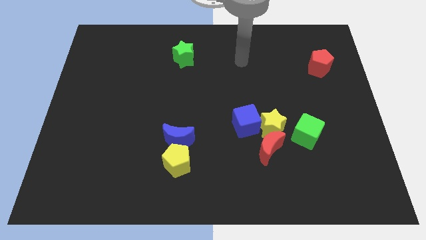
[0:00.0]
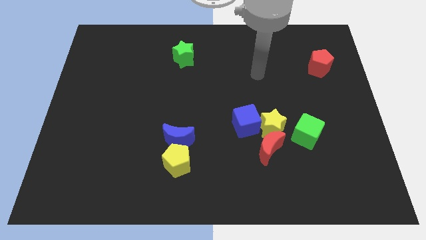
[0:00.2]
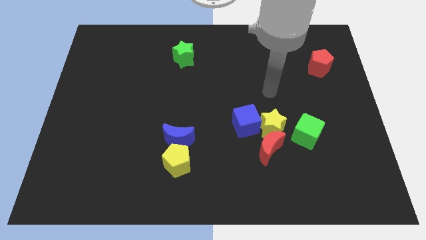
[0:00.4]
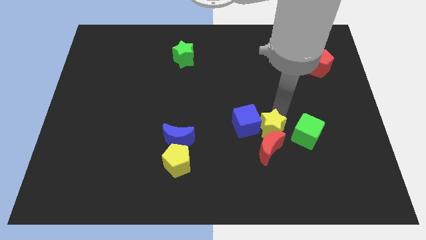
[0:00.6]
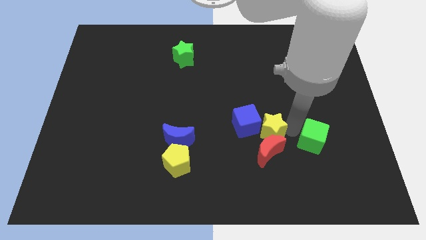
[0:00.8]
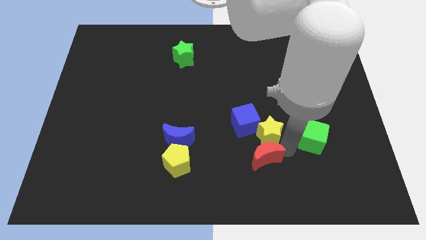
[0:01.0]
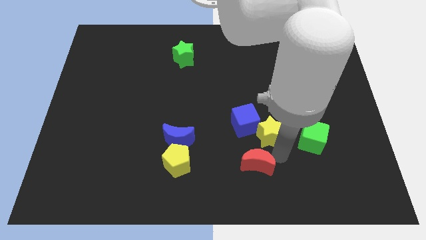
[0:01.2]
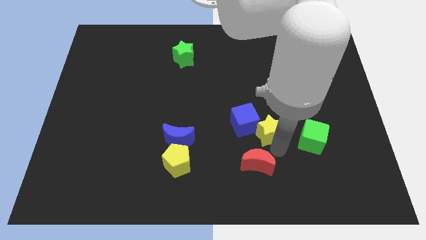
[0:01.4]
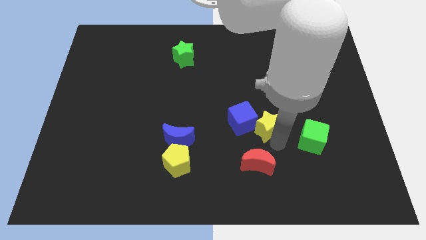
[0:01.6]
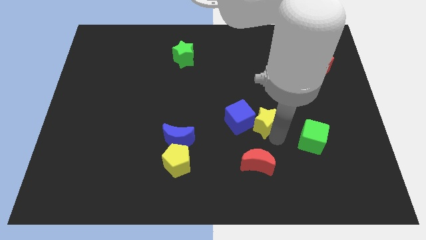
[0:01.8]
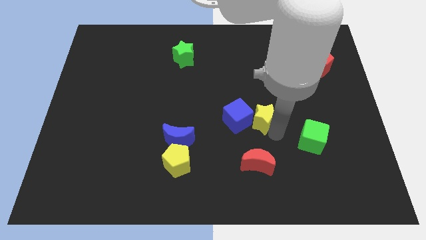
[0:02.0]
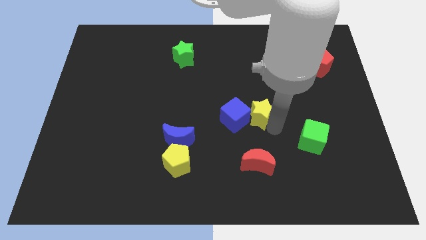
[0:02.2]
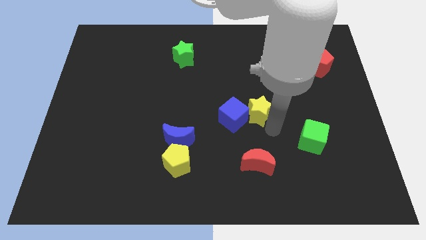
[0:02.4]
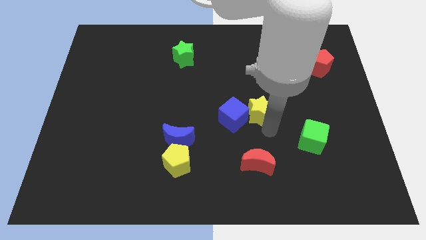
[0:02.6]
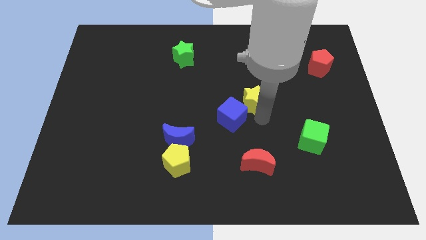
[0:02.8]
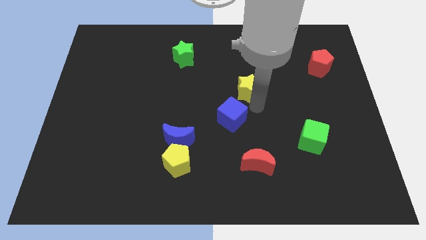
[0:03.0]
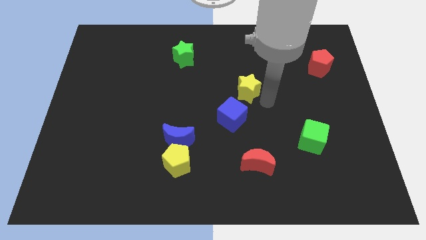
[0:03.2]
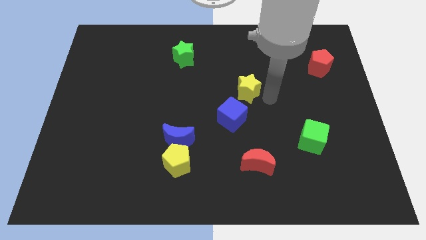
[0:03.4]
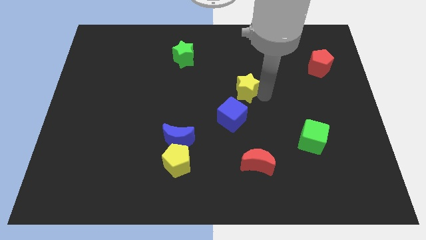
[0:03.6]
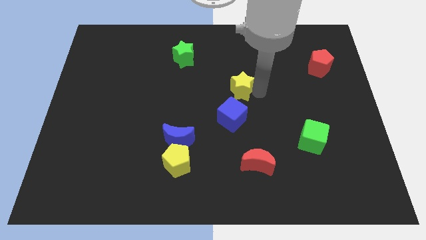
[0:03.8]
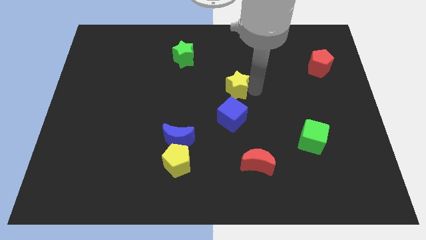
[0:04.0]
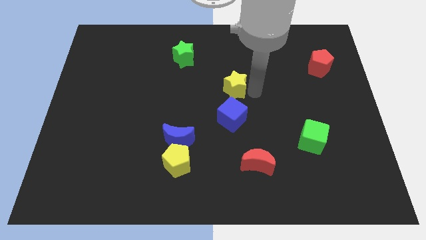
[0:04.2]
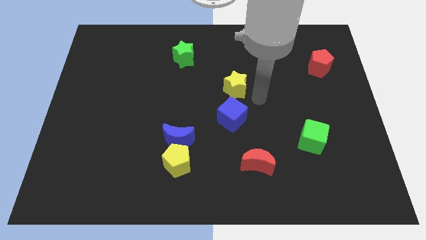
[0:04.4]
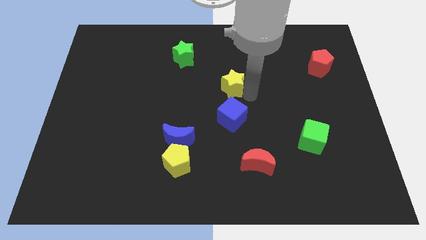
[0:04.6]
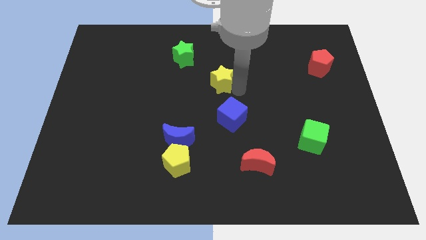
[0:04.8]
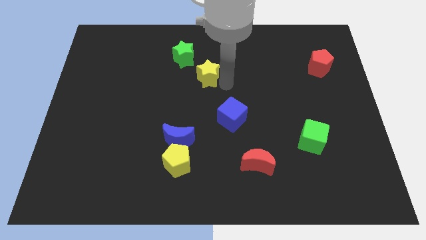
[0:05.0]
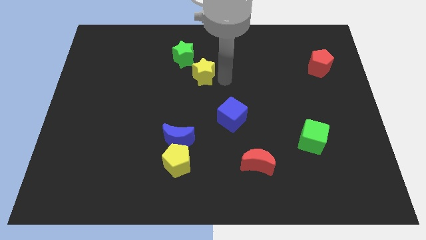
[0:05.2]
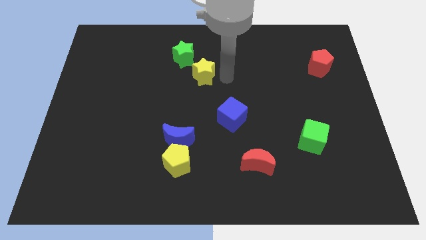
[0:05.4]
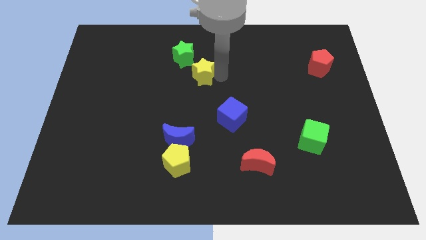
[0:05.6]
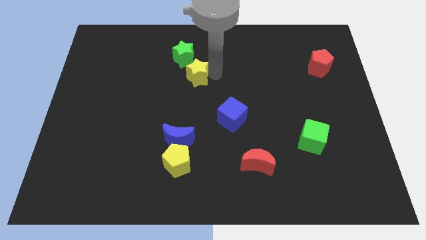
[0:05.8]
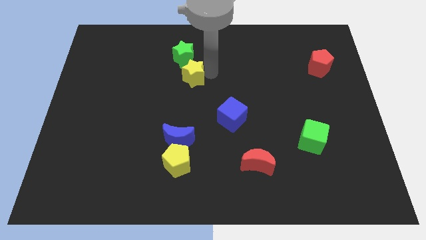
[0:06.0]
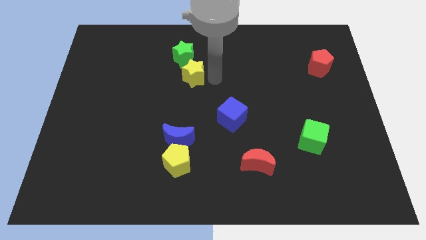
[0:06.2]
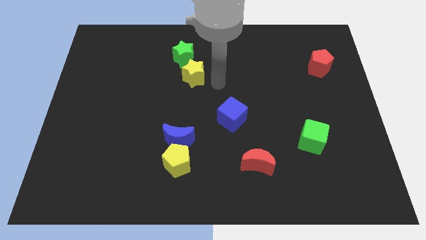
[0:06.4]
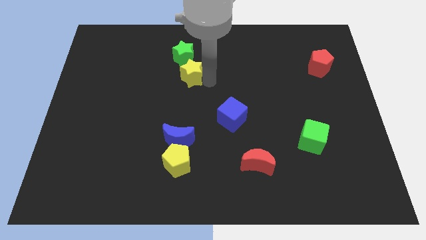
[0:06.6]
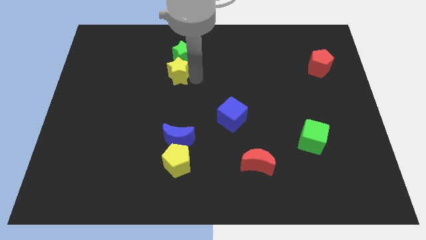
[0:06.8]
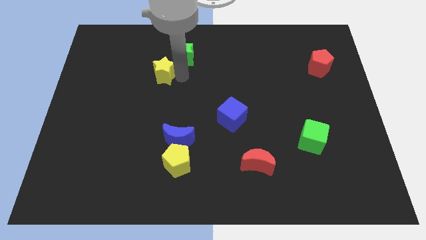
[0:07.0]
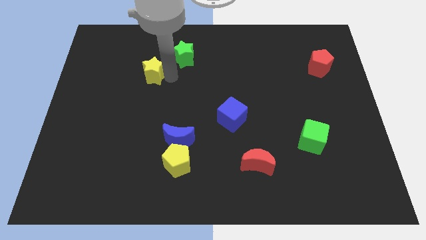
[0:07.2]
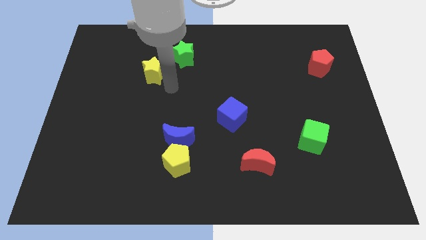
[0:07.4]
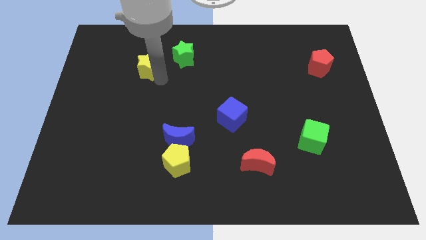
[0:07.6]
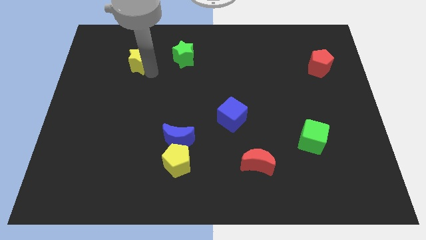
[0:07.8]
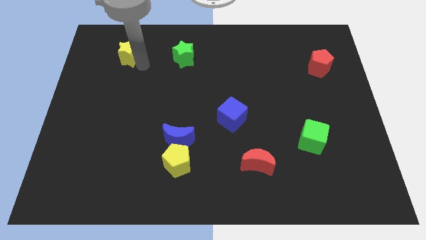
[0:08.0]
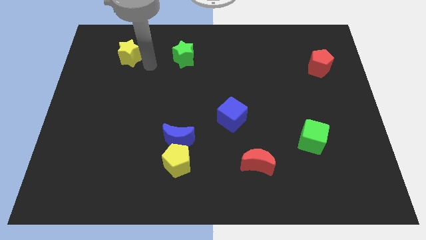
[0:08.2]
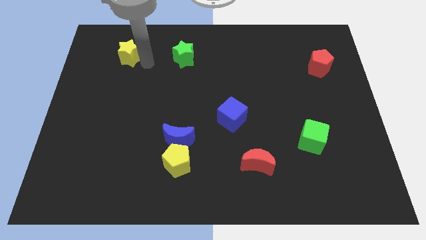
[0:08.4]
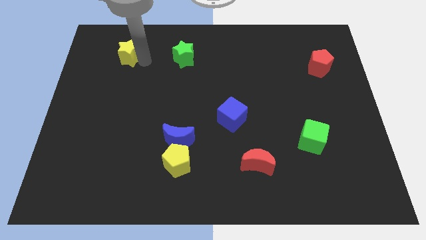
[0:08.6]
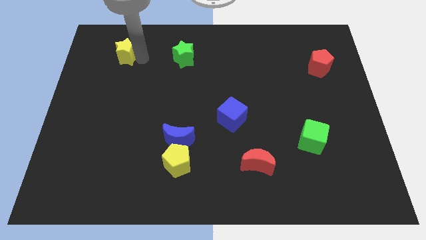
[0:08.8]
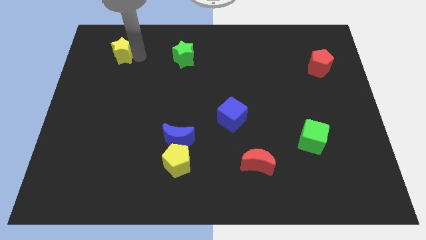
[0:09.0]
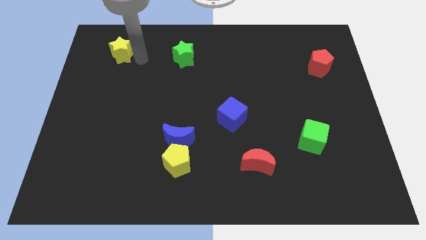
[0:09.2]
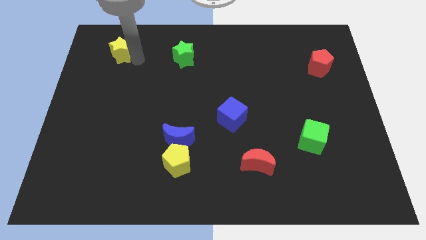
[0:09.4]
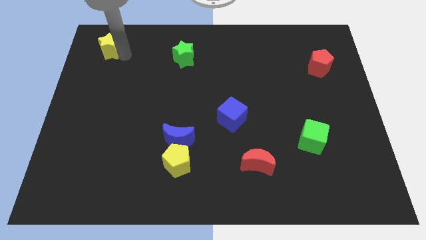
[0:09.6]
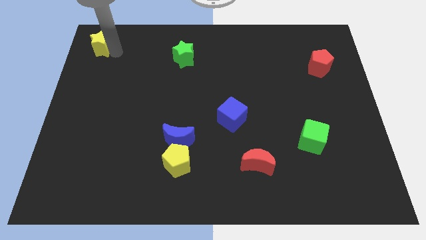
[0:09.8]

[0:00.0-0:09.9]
push the yellow star to the upper left corner

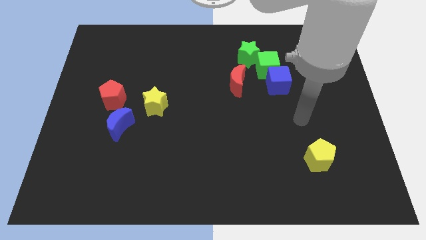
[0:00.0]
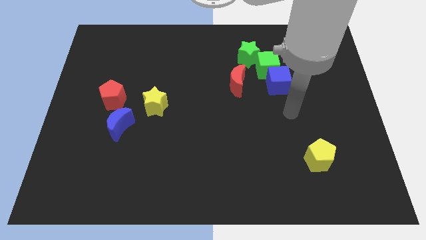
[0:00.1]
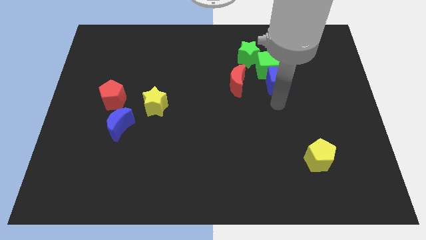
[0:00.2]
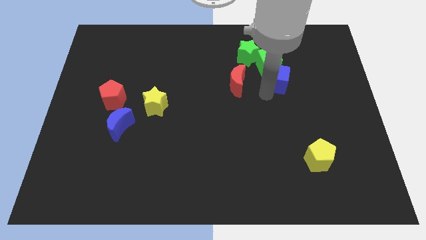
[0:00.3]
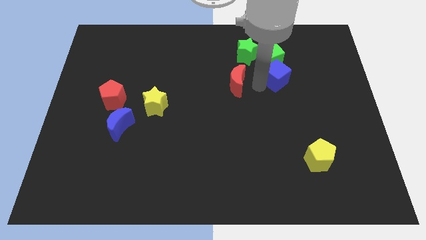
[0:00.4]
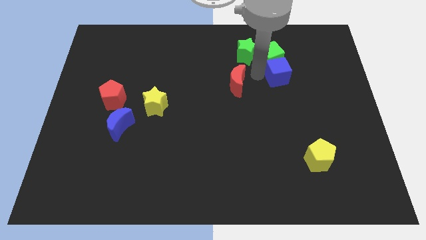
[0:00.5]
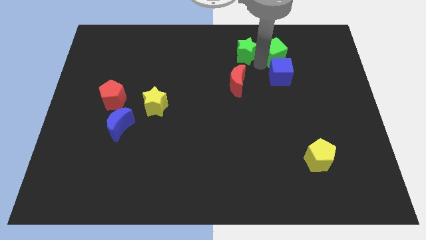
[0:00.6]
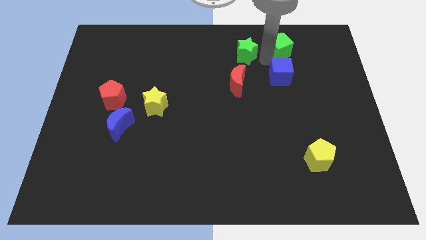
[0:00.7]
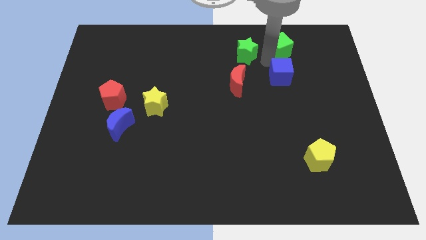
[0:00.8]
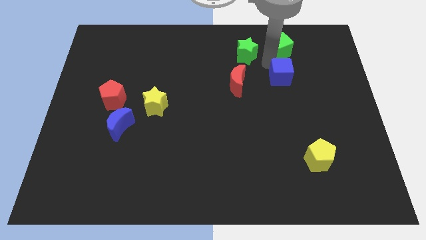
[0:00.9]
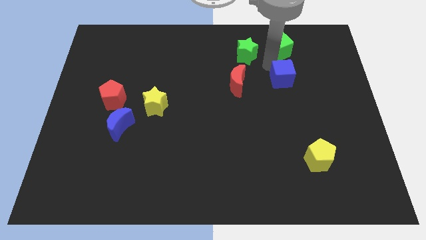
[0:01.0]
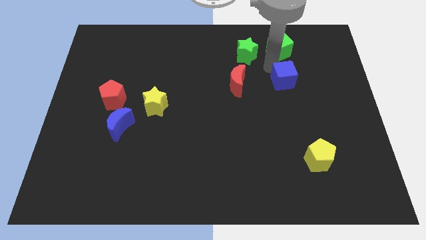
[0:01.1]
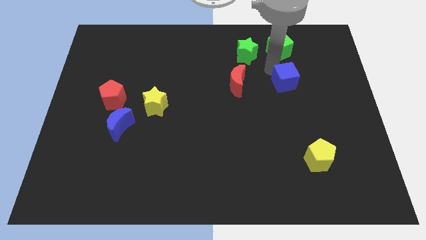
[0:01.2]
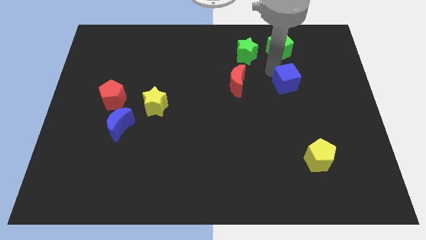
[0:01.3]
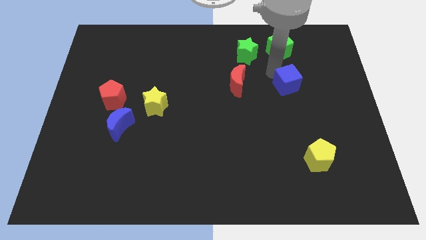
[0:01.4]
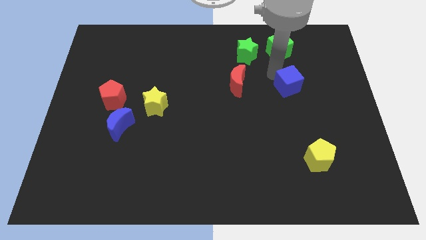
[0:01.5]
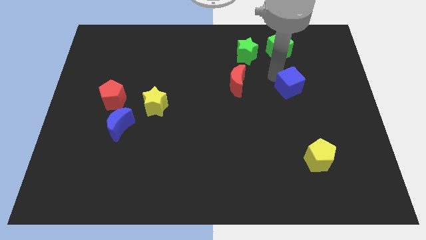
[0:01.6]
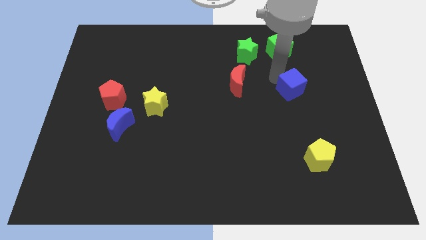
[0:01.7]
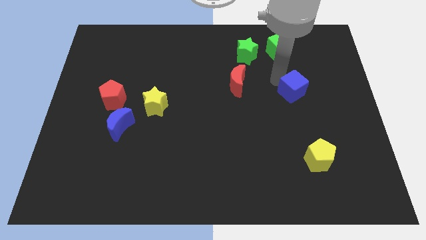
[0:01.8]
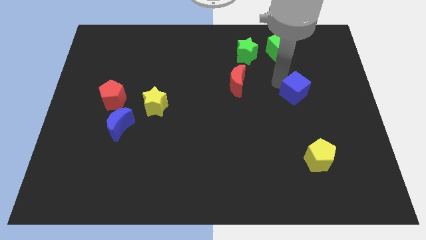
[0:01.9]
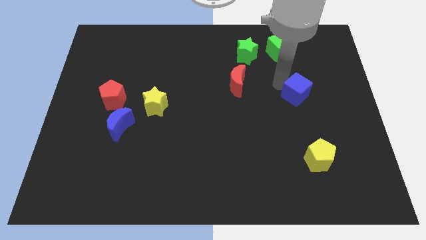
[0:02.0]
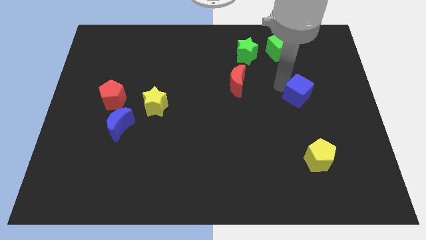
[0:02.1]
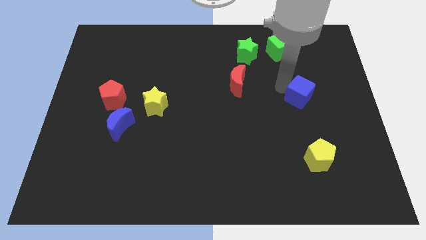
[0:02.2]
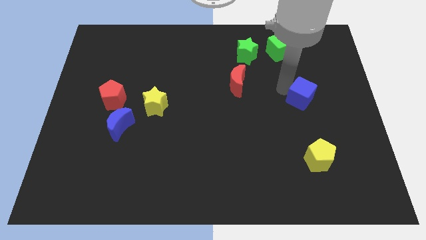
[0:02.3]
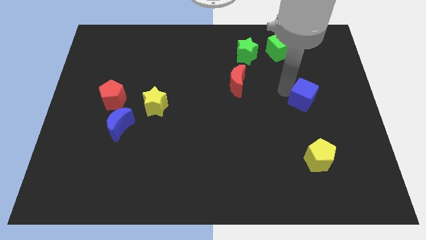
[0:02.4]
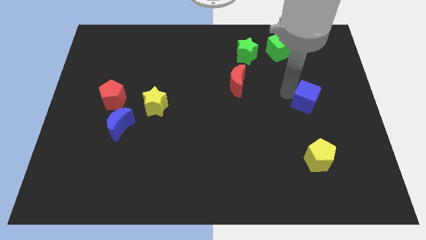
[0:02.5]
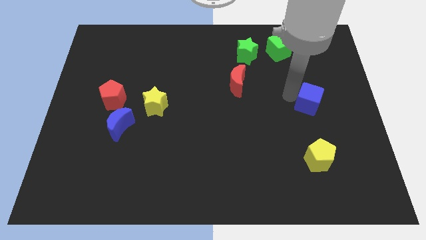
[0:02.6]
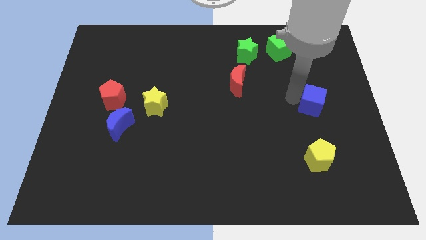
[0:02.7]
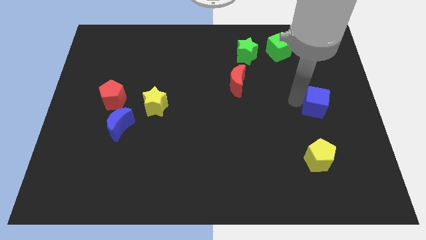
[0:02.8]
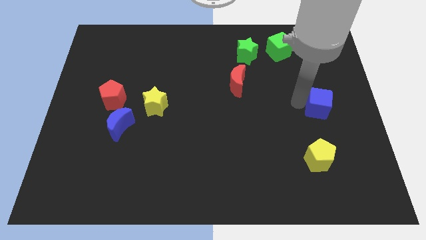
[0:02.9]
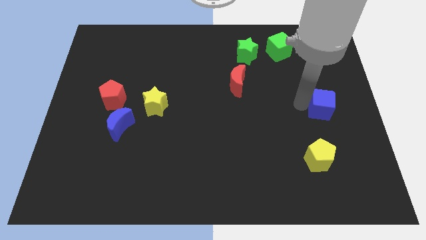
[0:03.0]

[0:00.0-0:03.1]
push the blue cube to the right side of the board
